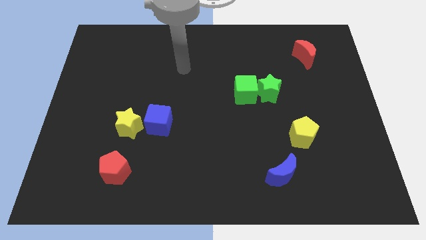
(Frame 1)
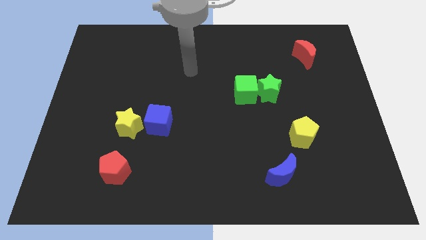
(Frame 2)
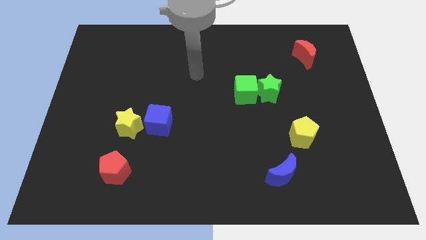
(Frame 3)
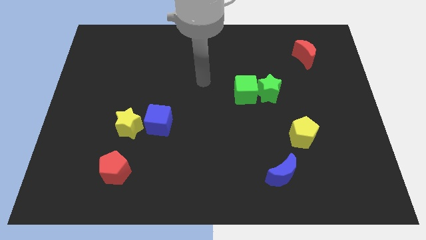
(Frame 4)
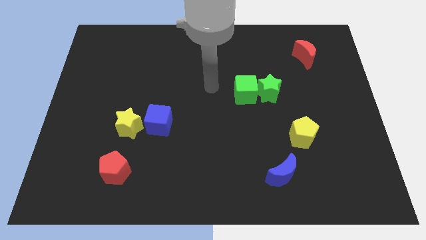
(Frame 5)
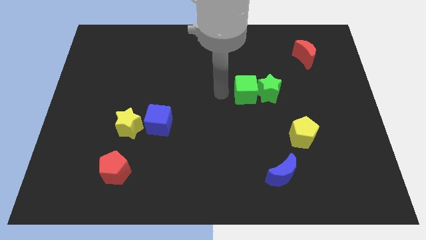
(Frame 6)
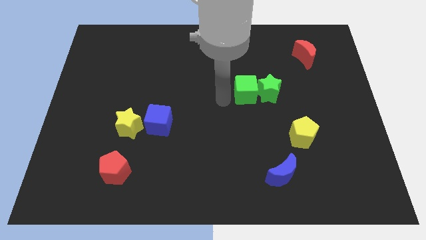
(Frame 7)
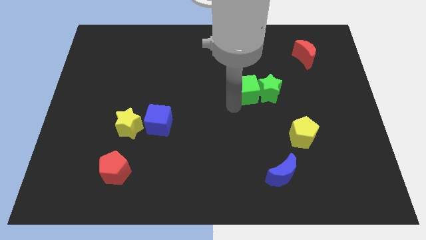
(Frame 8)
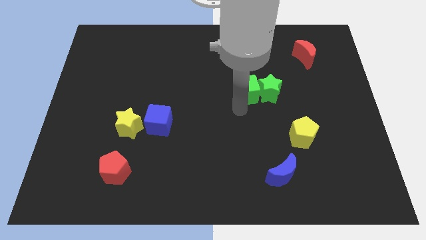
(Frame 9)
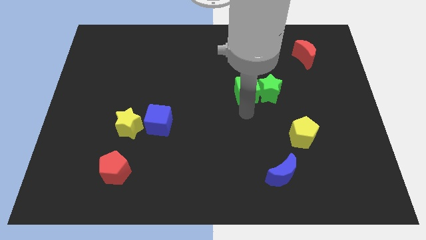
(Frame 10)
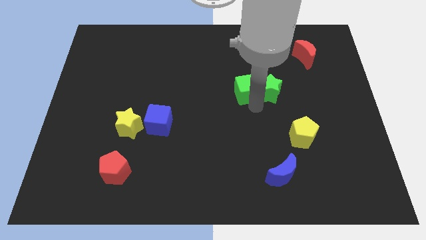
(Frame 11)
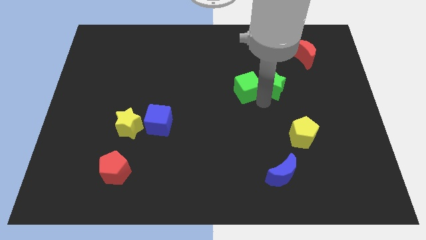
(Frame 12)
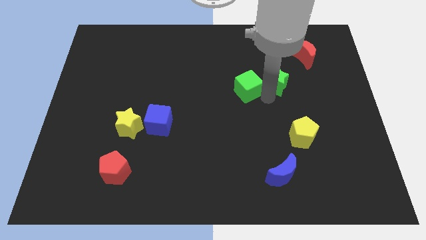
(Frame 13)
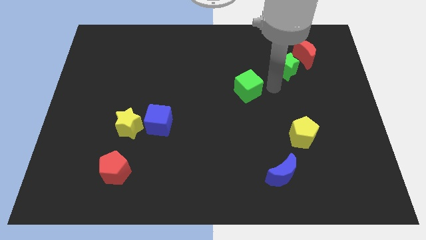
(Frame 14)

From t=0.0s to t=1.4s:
separate the green cube from the green star

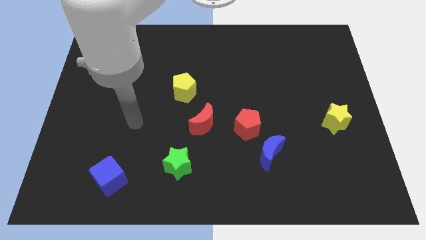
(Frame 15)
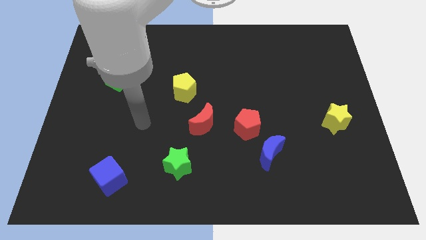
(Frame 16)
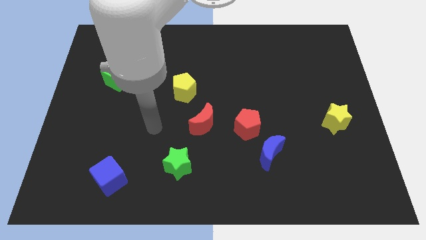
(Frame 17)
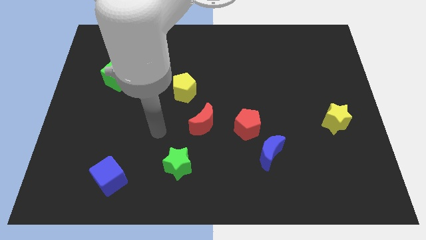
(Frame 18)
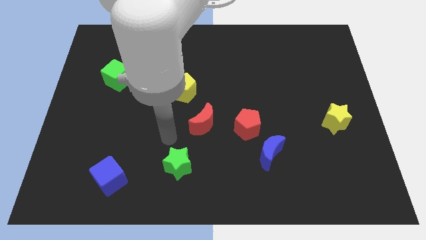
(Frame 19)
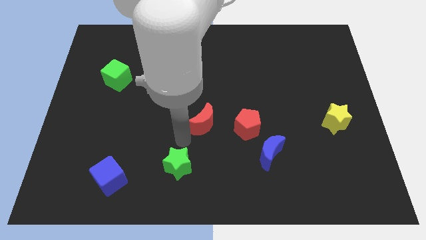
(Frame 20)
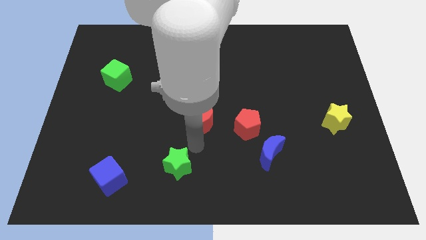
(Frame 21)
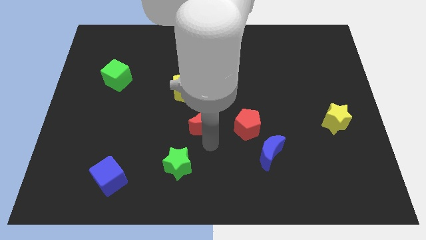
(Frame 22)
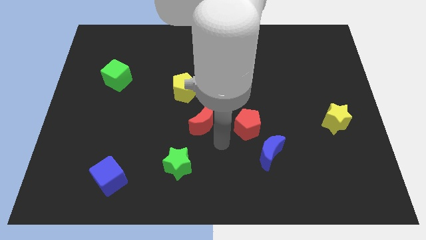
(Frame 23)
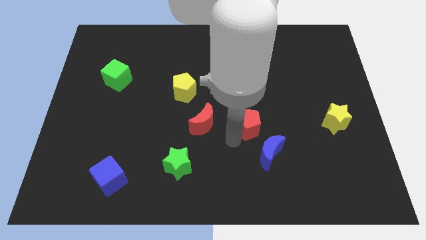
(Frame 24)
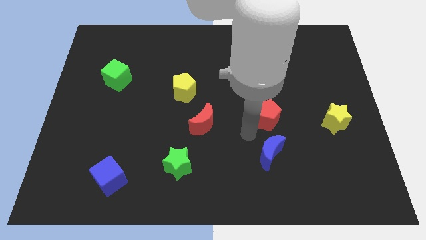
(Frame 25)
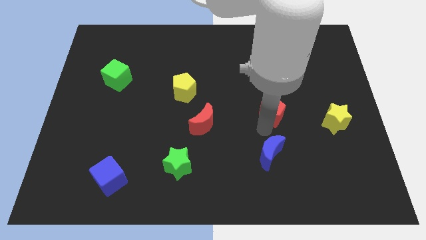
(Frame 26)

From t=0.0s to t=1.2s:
separate the blue moon from the red pentagon

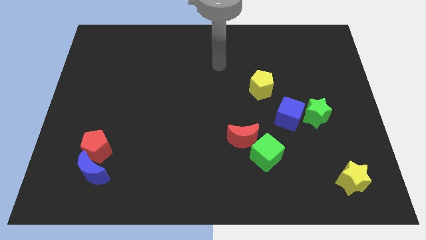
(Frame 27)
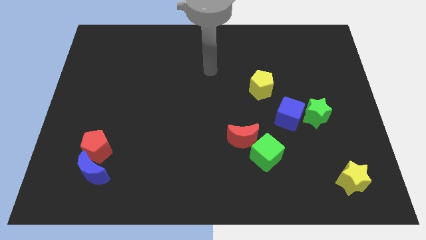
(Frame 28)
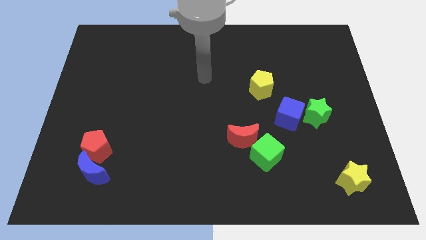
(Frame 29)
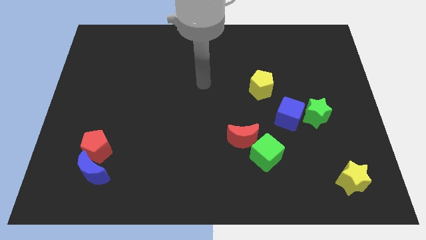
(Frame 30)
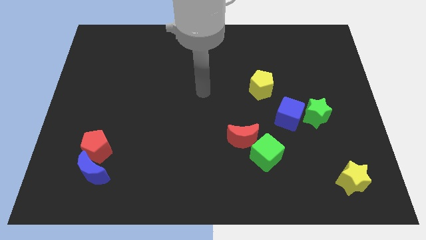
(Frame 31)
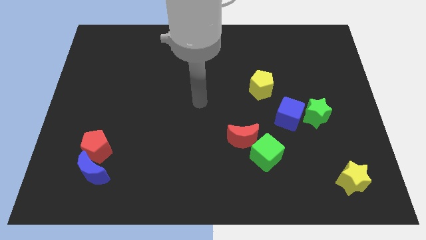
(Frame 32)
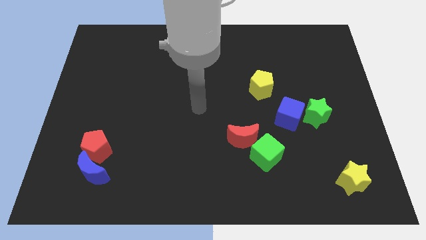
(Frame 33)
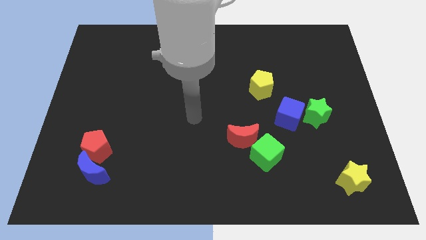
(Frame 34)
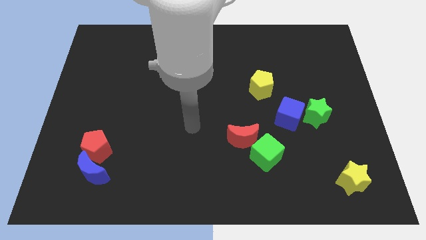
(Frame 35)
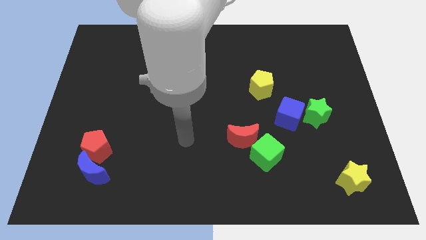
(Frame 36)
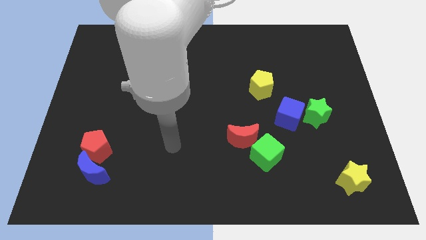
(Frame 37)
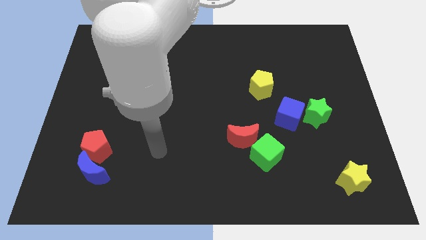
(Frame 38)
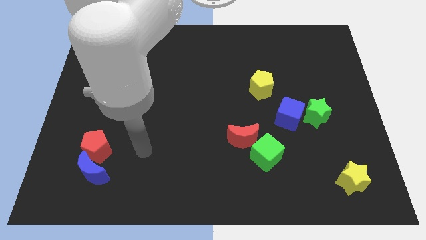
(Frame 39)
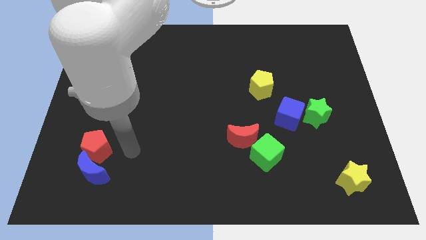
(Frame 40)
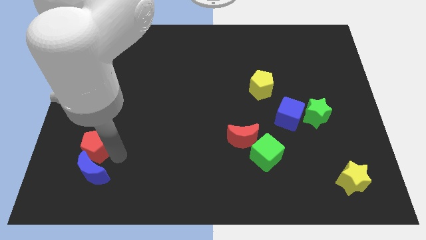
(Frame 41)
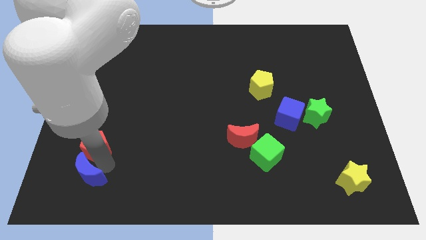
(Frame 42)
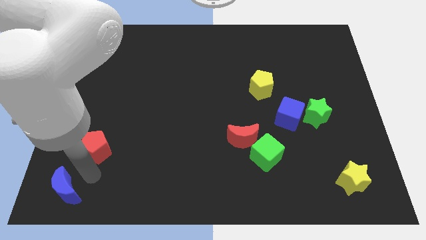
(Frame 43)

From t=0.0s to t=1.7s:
move the red pentagon away from the blue moon

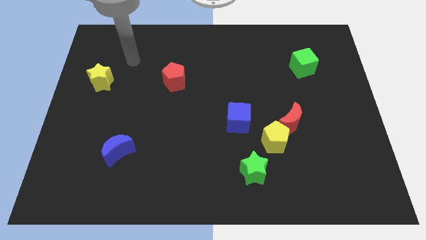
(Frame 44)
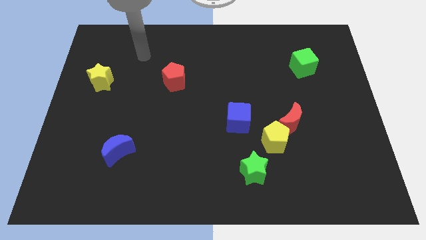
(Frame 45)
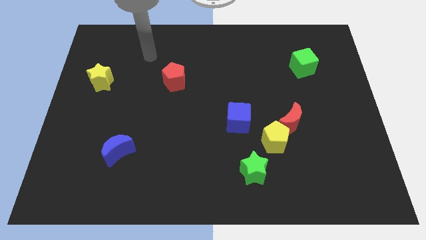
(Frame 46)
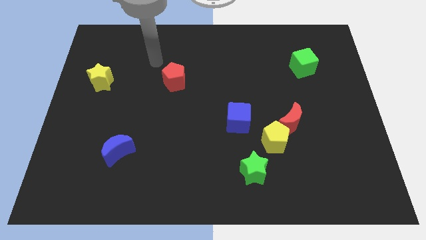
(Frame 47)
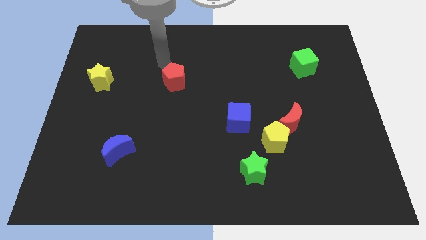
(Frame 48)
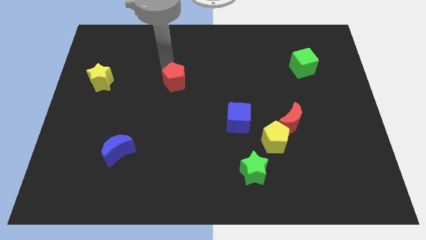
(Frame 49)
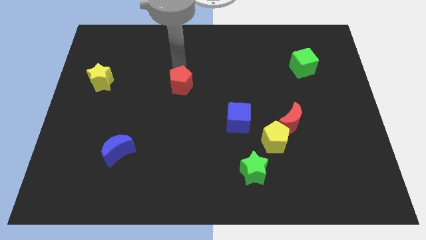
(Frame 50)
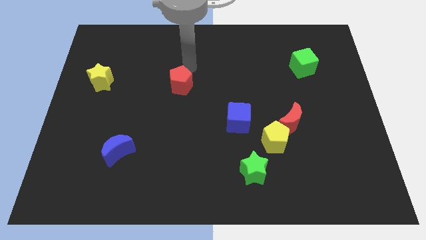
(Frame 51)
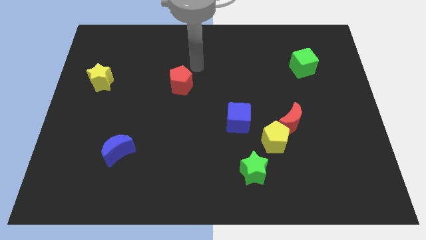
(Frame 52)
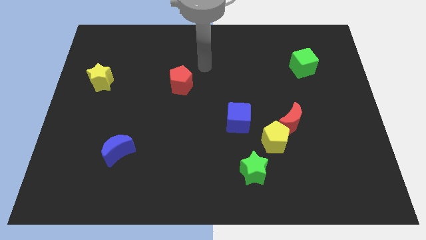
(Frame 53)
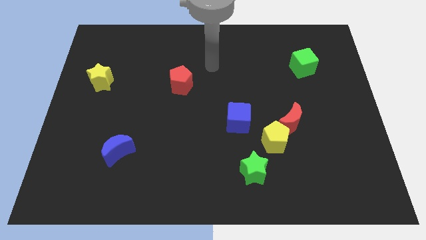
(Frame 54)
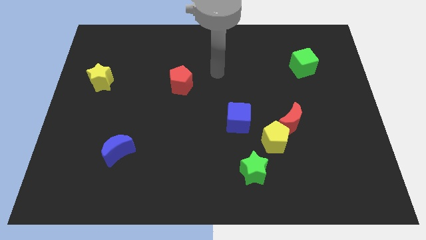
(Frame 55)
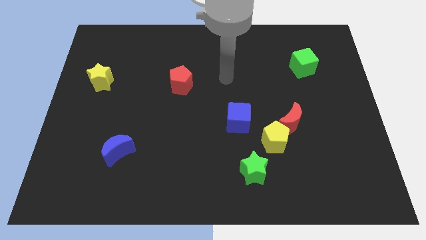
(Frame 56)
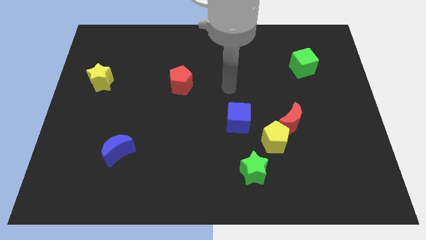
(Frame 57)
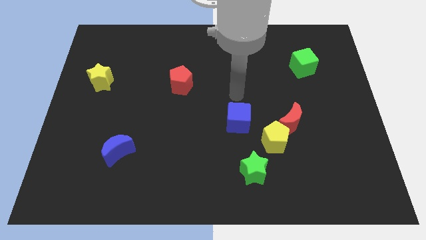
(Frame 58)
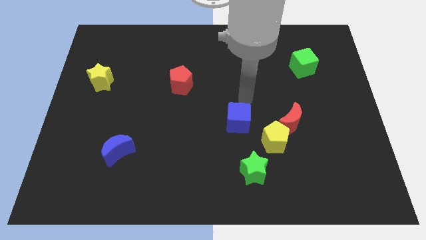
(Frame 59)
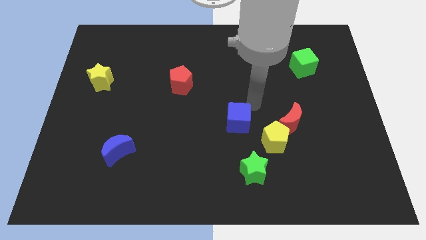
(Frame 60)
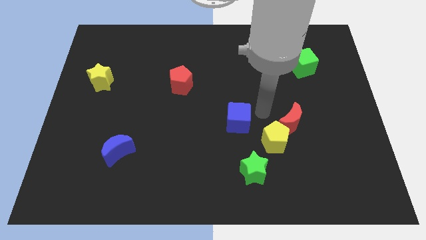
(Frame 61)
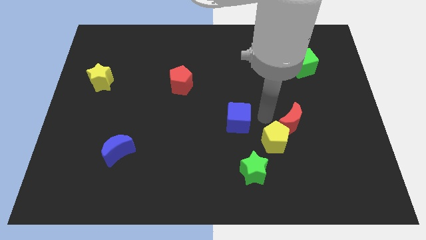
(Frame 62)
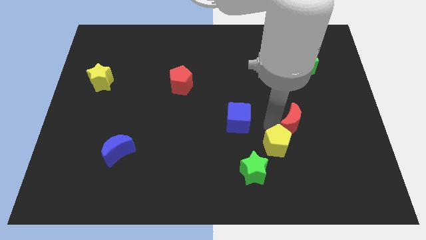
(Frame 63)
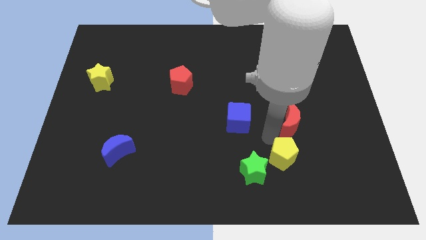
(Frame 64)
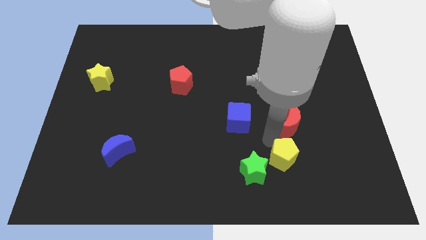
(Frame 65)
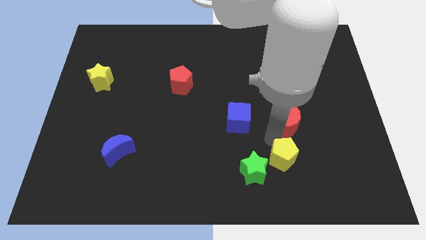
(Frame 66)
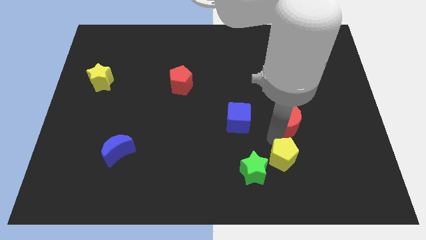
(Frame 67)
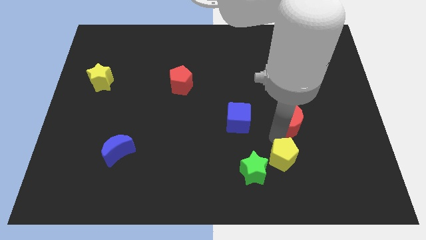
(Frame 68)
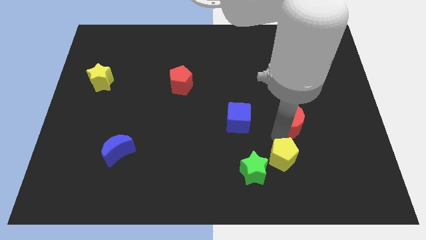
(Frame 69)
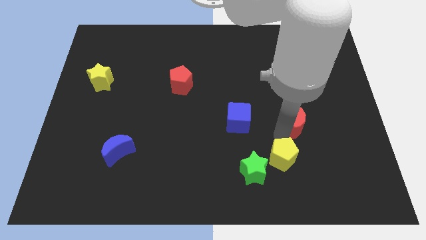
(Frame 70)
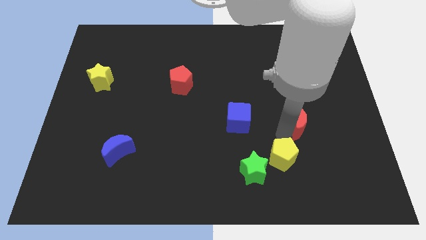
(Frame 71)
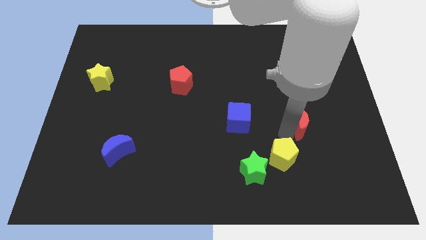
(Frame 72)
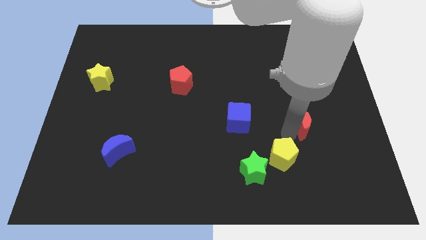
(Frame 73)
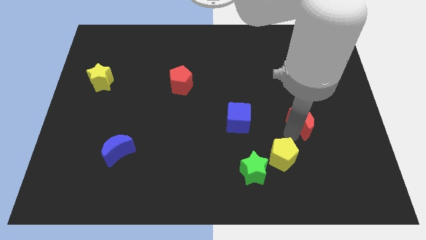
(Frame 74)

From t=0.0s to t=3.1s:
pull the red moon apart from the yellow pentagon

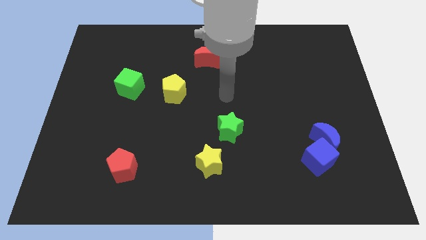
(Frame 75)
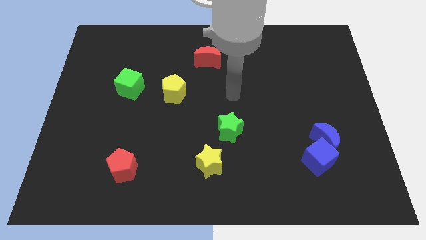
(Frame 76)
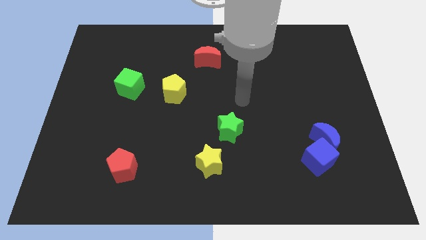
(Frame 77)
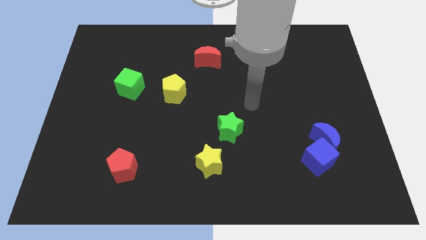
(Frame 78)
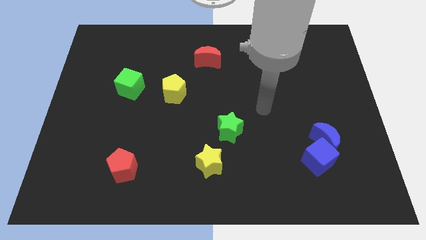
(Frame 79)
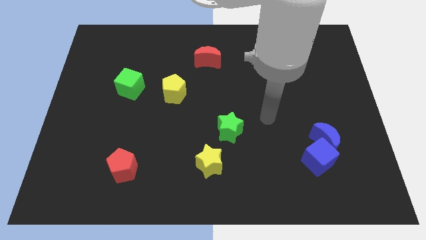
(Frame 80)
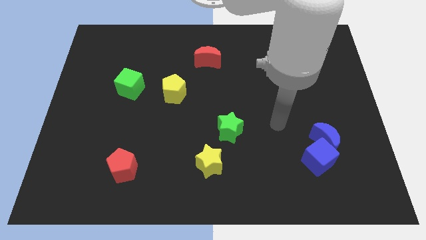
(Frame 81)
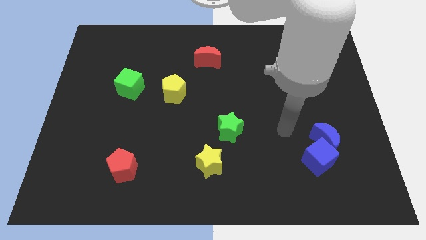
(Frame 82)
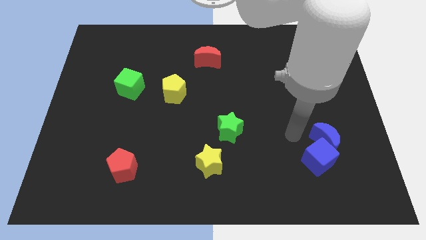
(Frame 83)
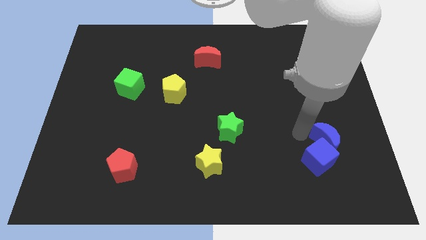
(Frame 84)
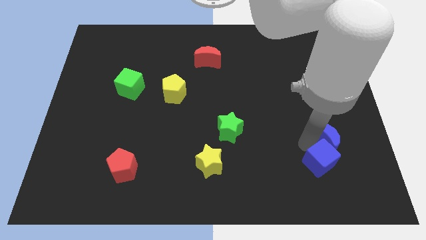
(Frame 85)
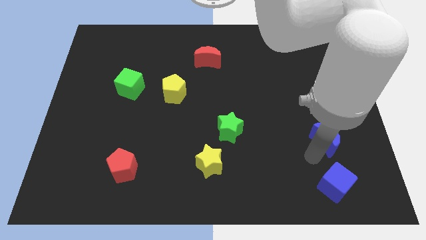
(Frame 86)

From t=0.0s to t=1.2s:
separate the blue moon from the blue cube

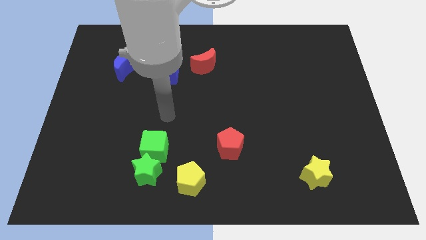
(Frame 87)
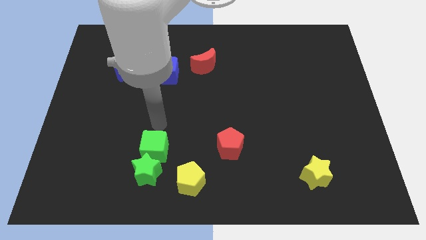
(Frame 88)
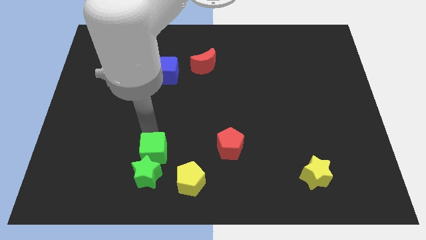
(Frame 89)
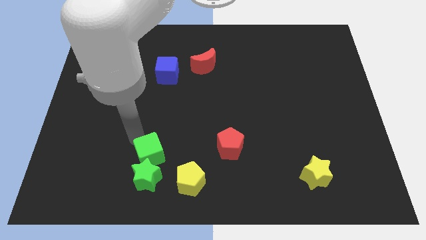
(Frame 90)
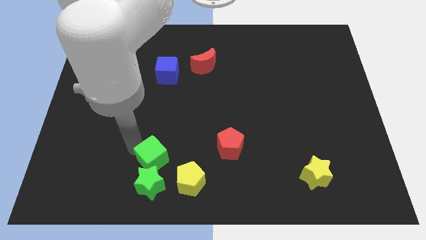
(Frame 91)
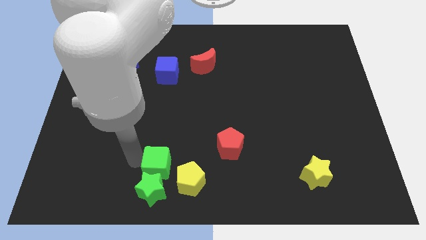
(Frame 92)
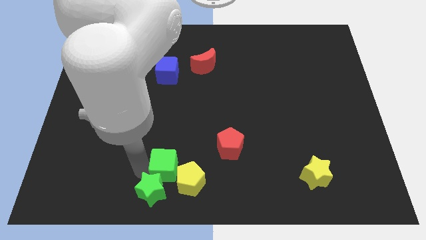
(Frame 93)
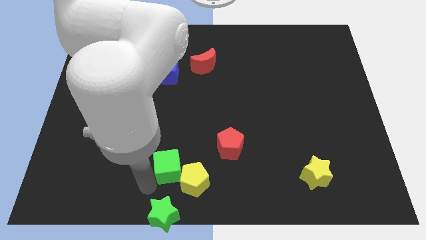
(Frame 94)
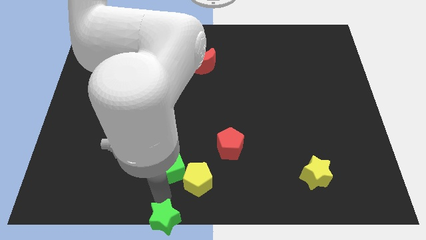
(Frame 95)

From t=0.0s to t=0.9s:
pull the green cube apart from the green star
